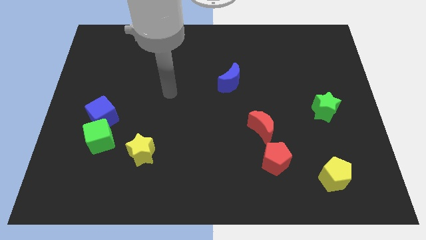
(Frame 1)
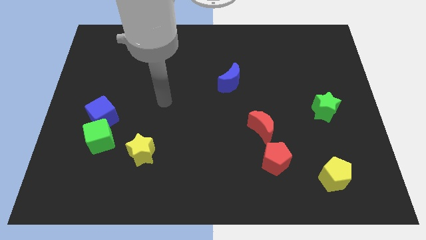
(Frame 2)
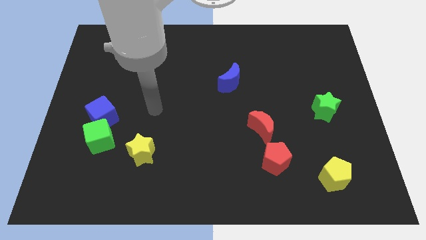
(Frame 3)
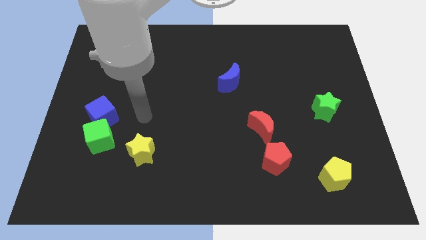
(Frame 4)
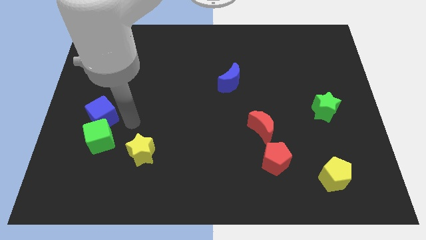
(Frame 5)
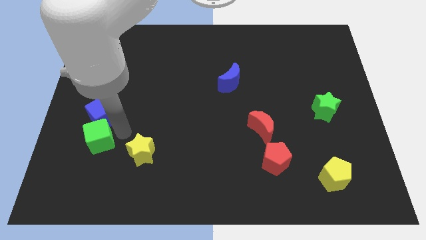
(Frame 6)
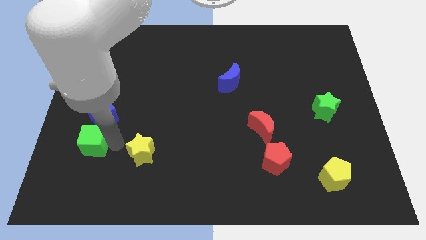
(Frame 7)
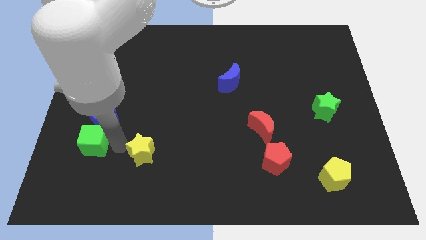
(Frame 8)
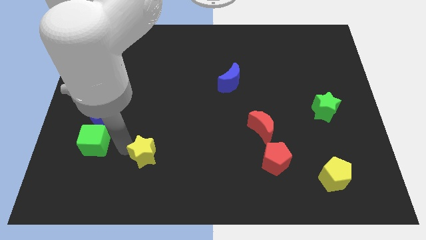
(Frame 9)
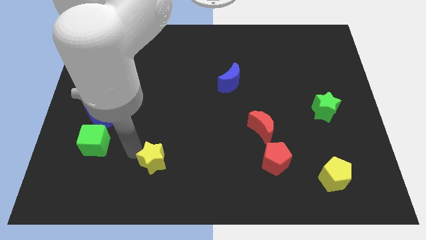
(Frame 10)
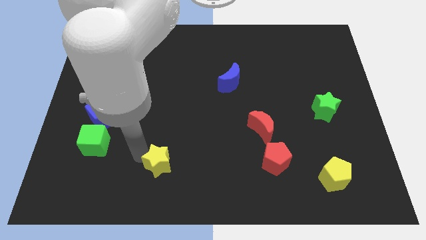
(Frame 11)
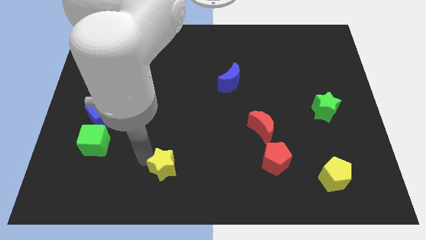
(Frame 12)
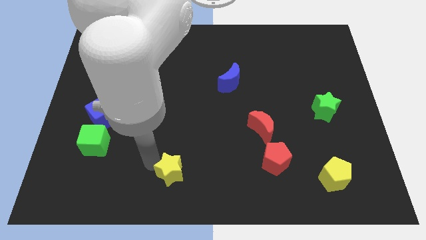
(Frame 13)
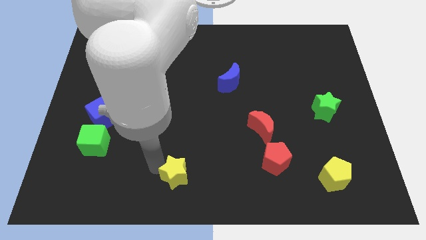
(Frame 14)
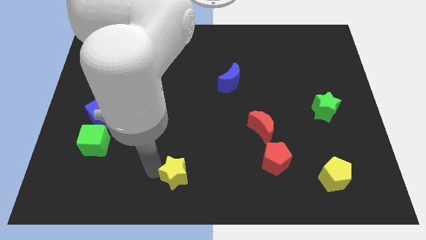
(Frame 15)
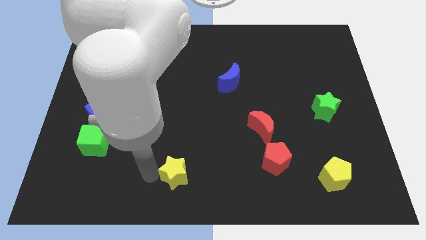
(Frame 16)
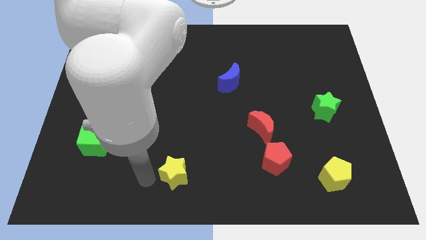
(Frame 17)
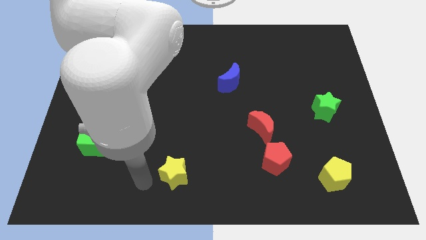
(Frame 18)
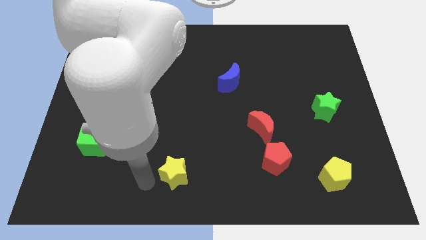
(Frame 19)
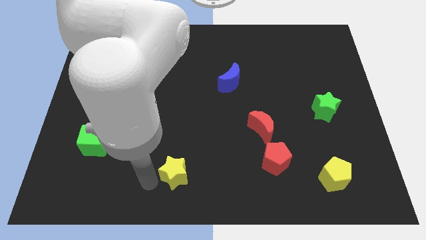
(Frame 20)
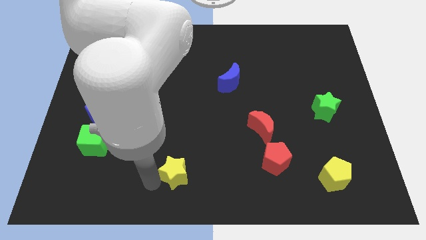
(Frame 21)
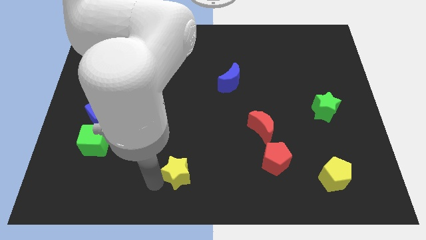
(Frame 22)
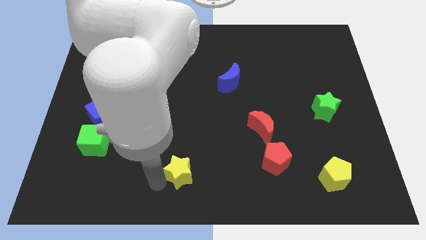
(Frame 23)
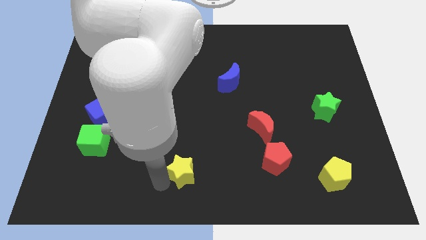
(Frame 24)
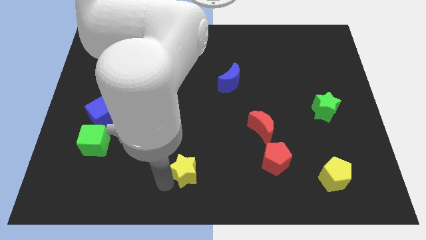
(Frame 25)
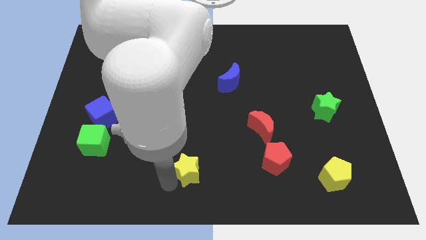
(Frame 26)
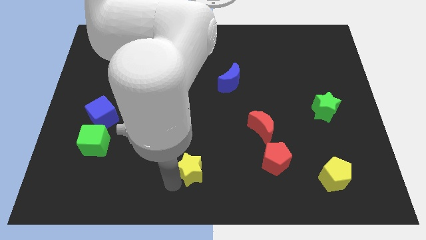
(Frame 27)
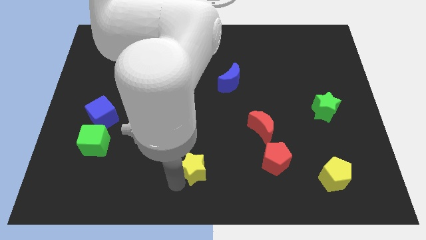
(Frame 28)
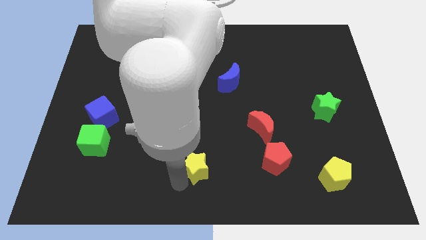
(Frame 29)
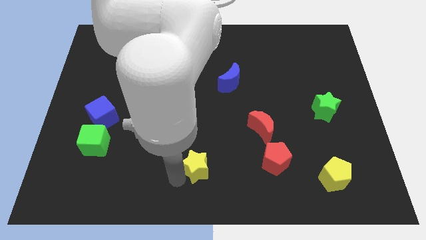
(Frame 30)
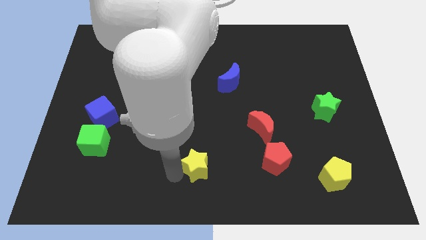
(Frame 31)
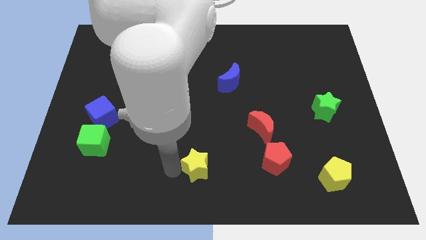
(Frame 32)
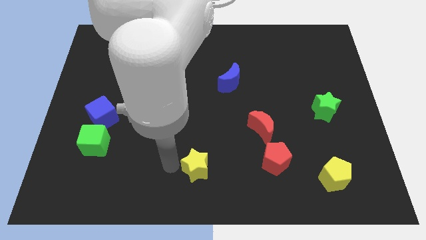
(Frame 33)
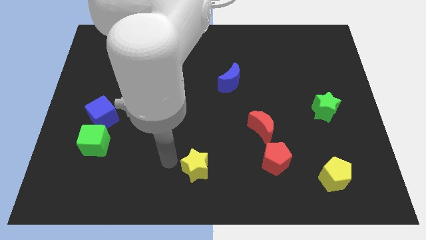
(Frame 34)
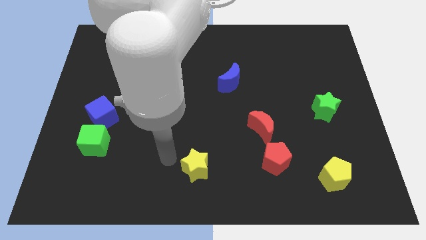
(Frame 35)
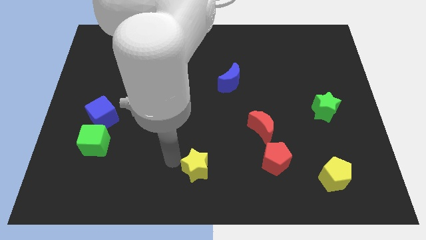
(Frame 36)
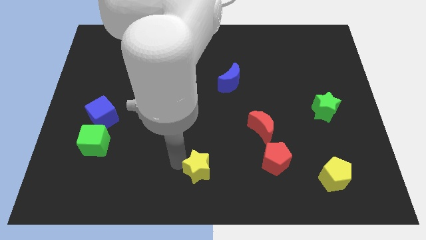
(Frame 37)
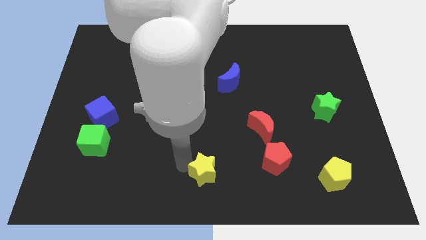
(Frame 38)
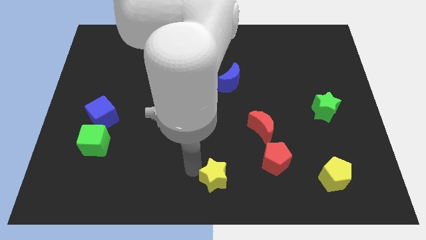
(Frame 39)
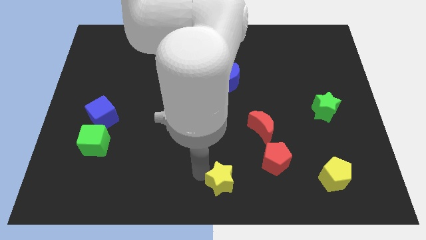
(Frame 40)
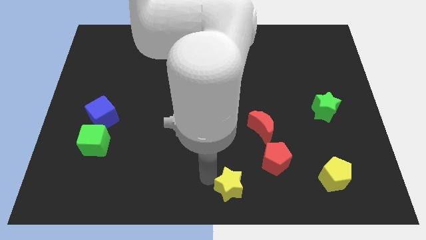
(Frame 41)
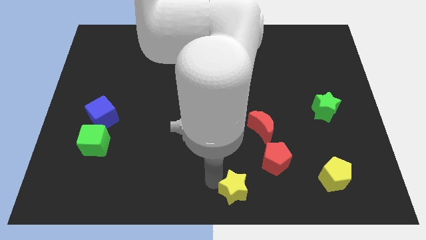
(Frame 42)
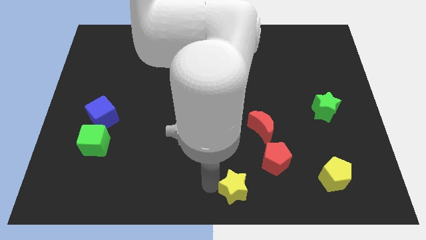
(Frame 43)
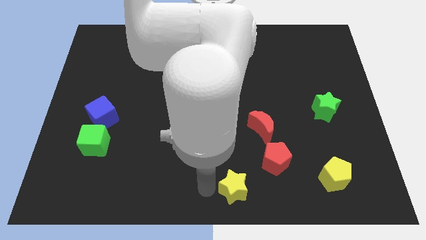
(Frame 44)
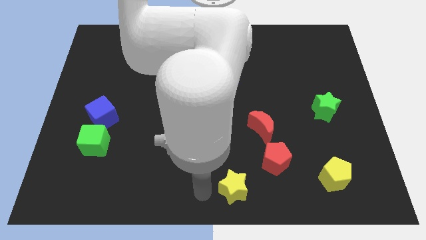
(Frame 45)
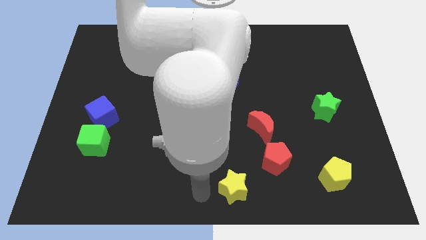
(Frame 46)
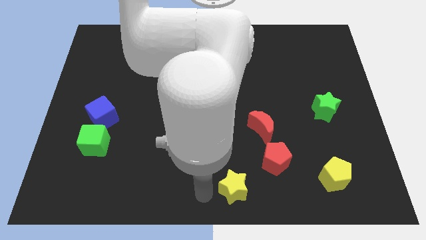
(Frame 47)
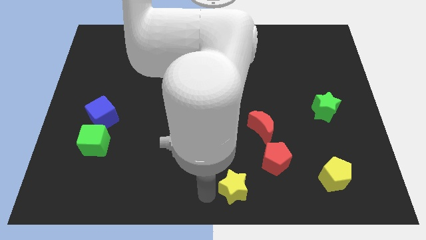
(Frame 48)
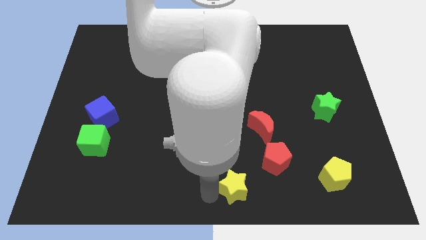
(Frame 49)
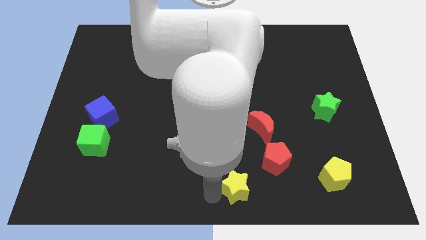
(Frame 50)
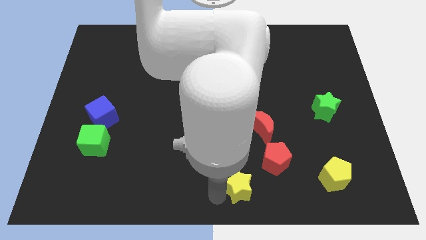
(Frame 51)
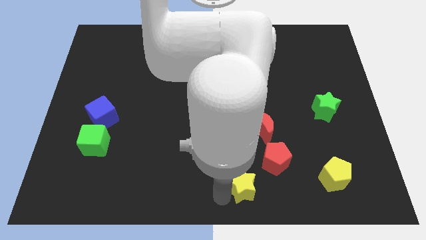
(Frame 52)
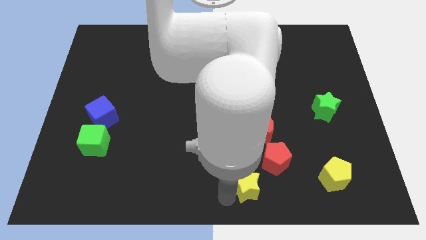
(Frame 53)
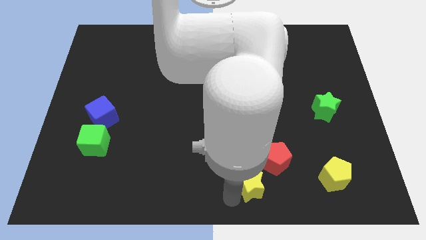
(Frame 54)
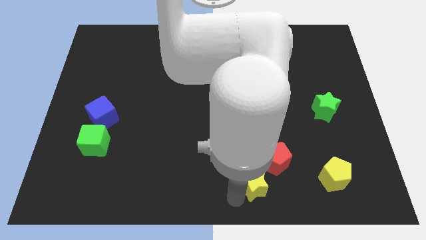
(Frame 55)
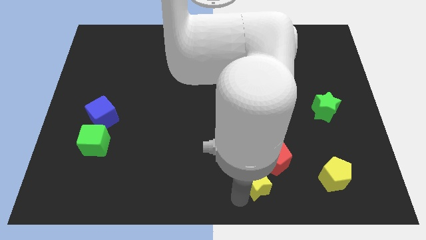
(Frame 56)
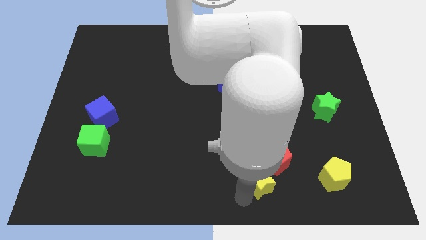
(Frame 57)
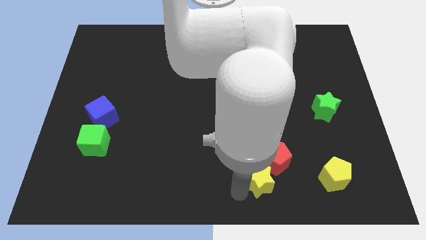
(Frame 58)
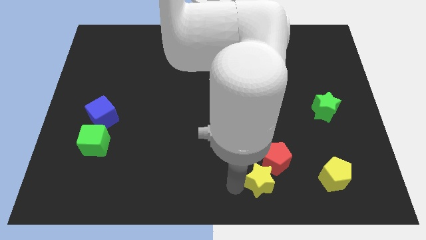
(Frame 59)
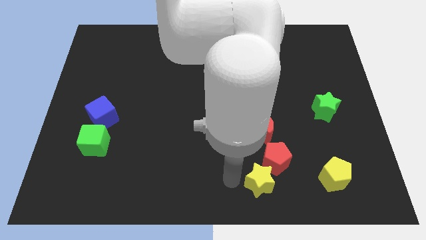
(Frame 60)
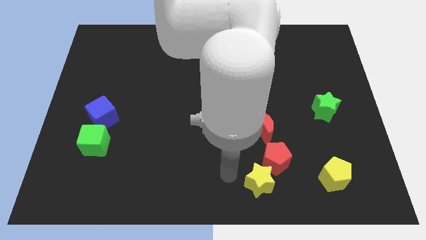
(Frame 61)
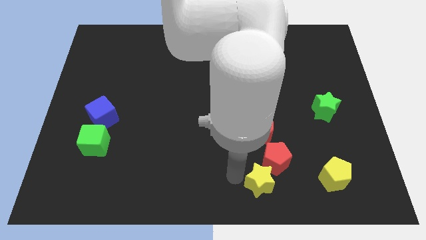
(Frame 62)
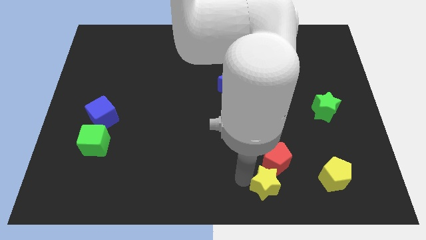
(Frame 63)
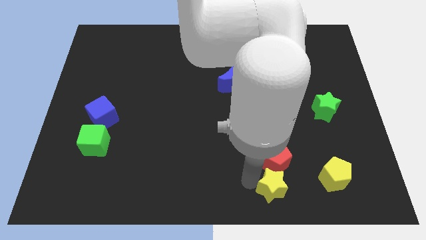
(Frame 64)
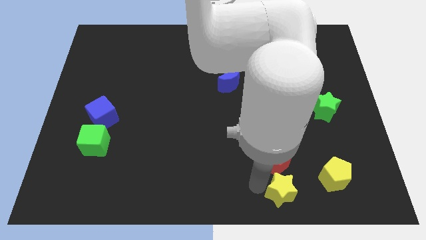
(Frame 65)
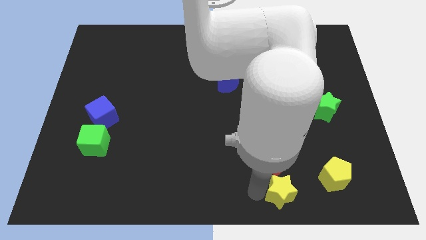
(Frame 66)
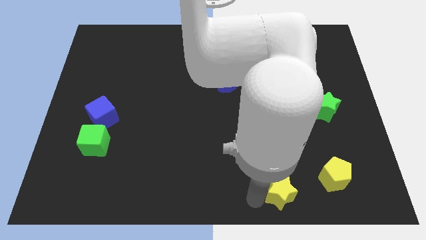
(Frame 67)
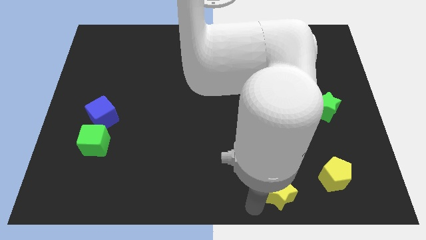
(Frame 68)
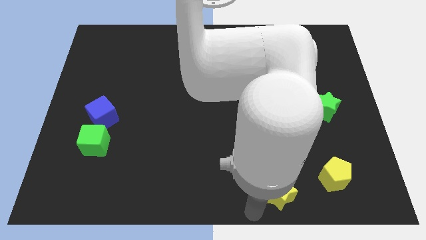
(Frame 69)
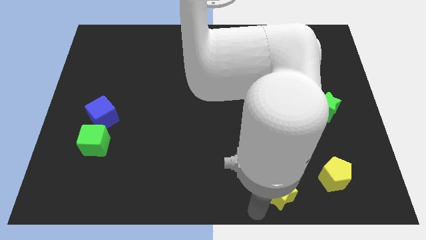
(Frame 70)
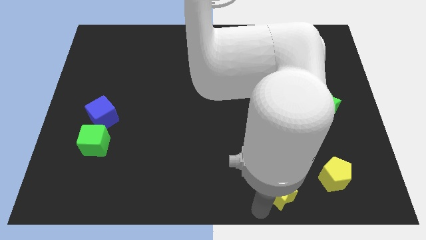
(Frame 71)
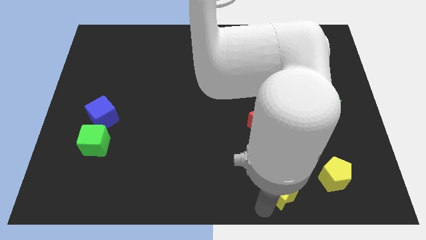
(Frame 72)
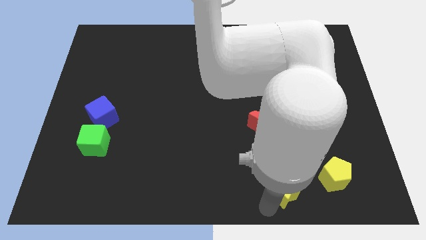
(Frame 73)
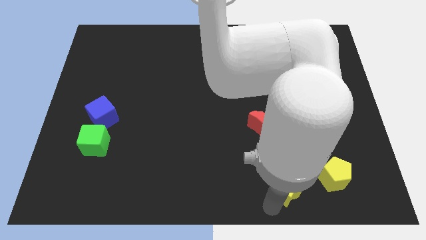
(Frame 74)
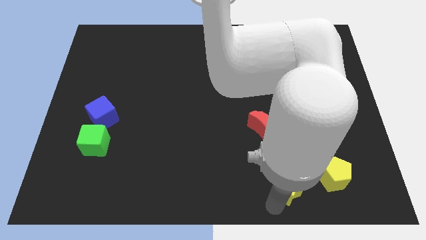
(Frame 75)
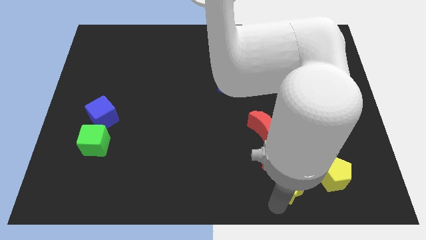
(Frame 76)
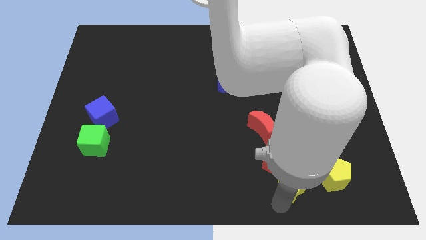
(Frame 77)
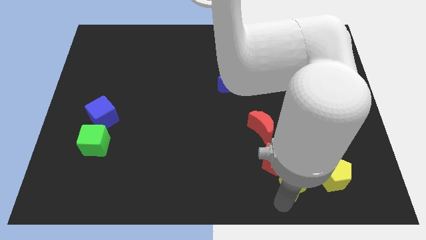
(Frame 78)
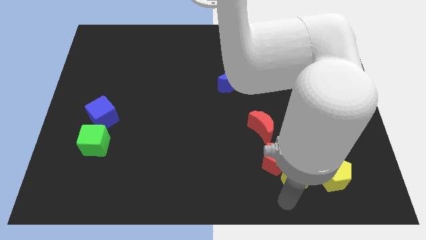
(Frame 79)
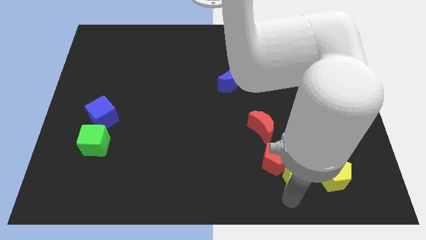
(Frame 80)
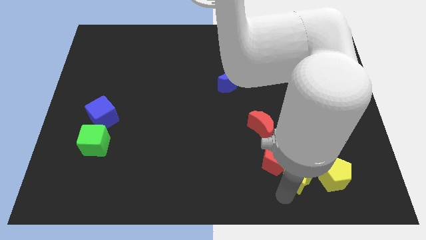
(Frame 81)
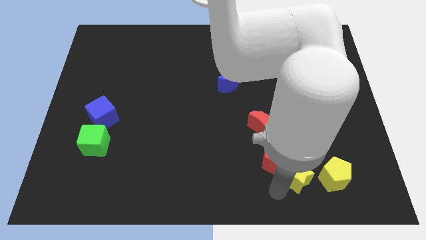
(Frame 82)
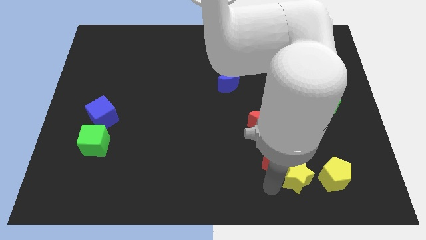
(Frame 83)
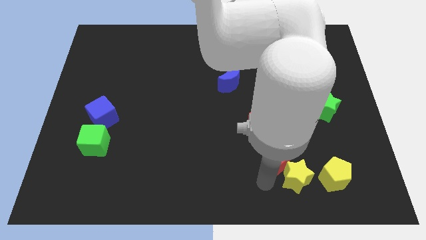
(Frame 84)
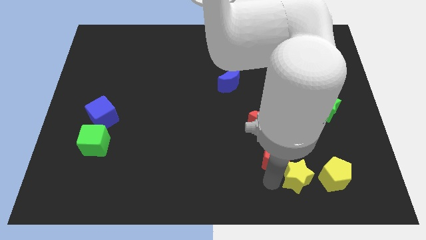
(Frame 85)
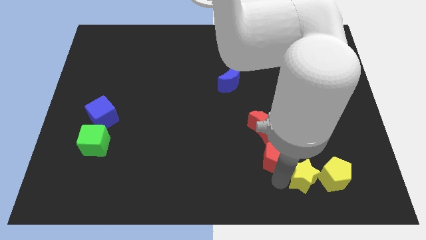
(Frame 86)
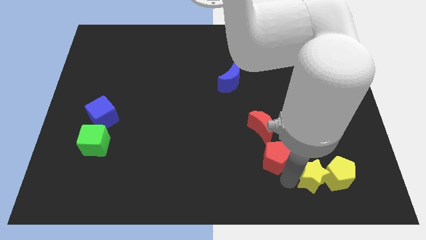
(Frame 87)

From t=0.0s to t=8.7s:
put the yellow star close to the yellow pentagon
